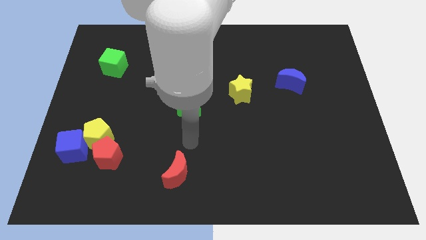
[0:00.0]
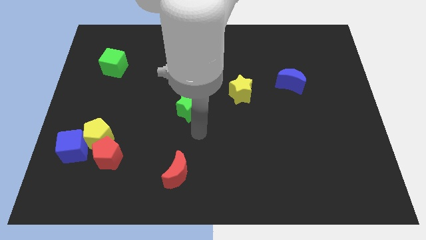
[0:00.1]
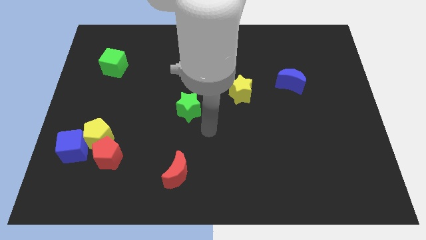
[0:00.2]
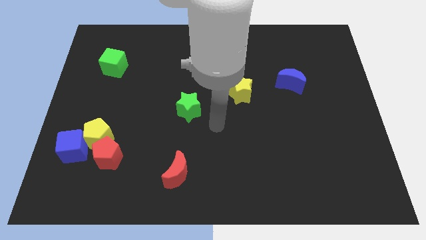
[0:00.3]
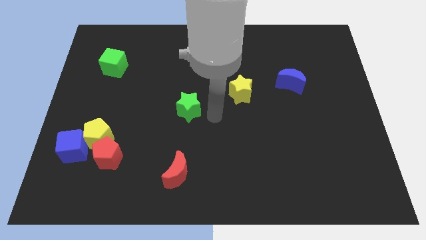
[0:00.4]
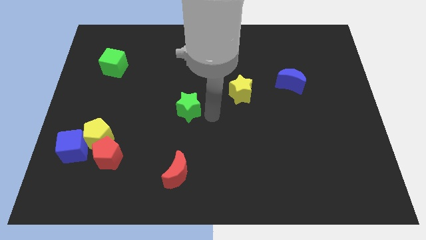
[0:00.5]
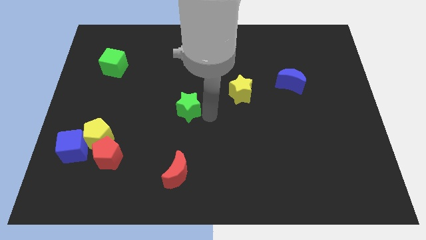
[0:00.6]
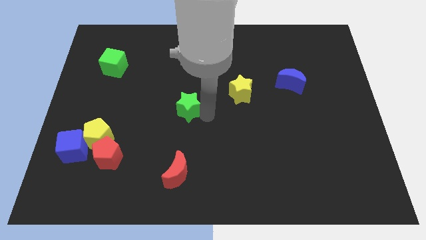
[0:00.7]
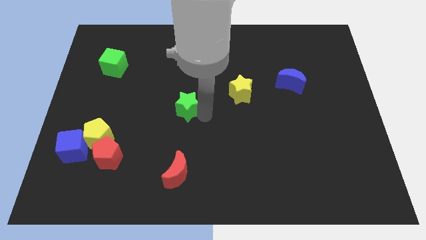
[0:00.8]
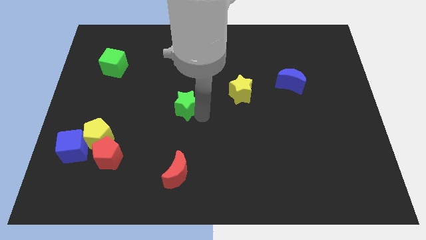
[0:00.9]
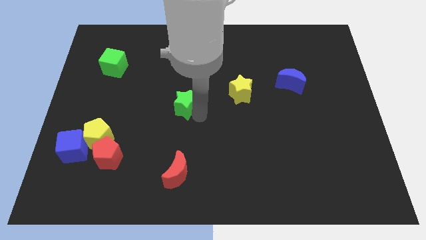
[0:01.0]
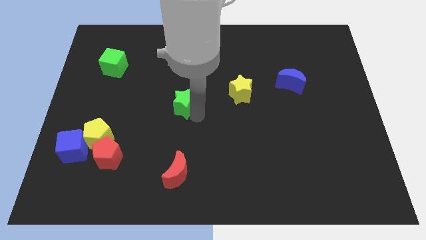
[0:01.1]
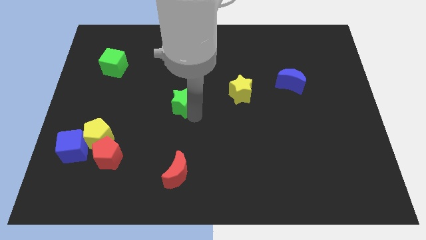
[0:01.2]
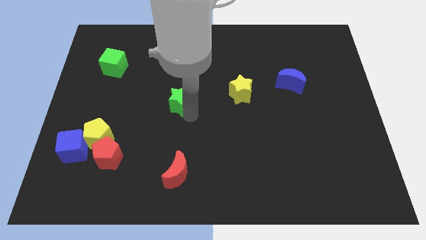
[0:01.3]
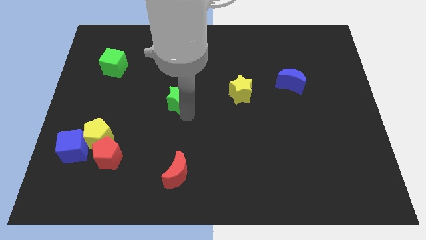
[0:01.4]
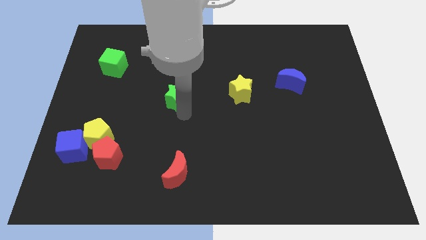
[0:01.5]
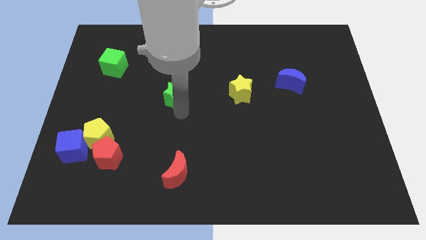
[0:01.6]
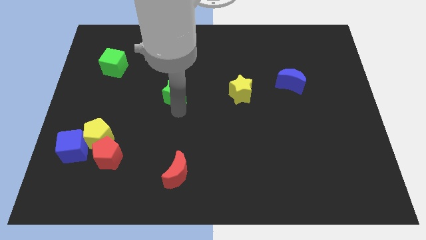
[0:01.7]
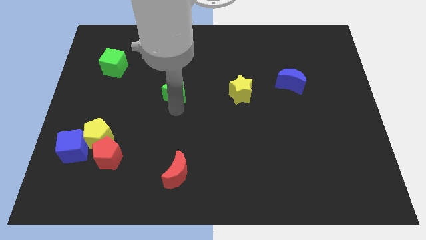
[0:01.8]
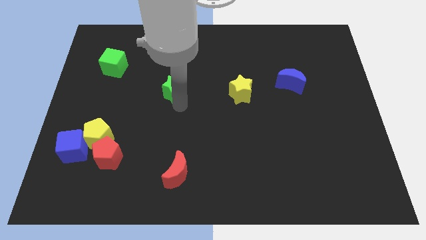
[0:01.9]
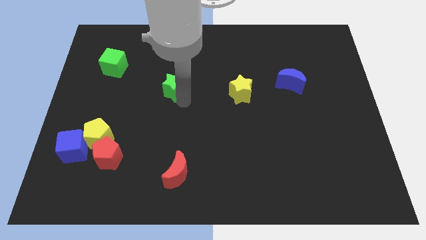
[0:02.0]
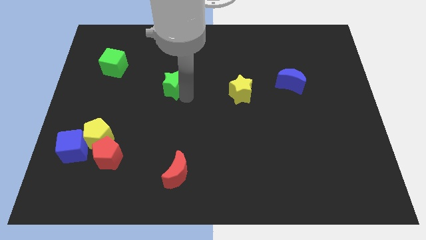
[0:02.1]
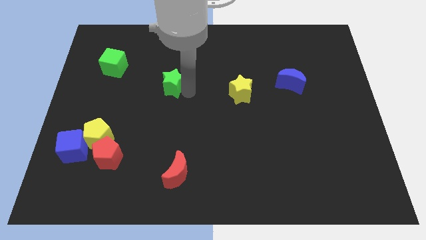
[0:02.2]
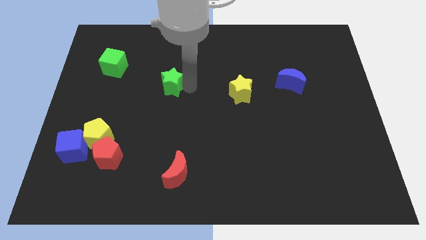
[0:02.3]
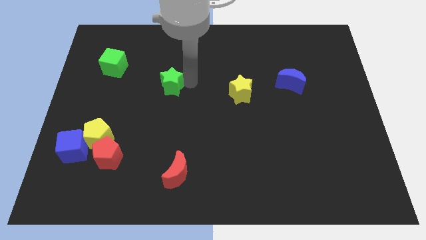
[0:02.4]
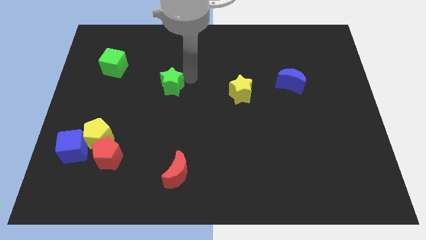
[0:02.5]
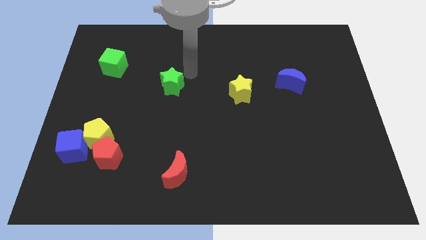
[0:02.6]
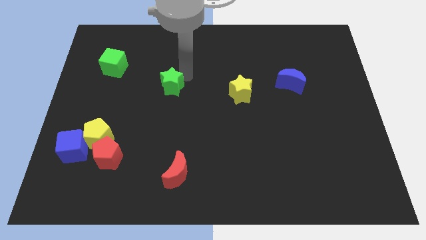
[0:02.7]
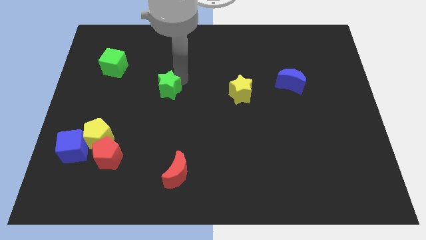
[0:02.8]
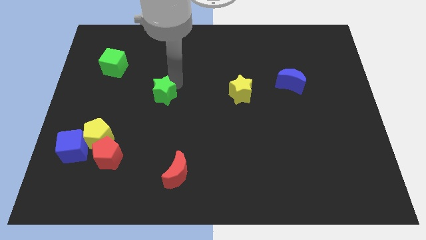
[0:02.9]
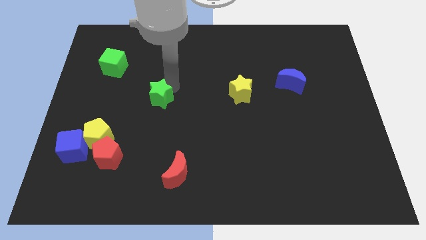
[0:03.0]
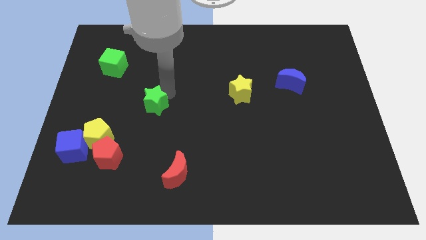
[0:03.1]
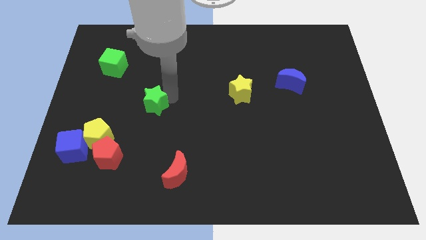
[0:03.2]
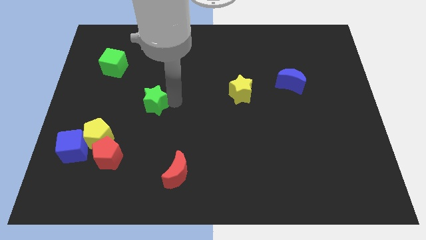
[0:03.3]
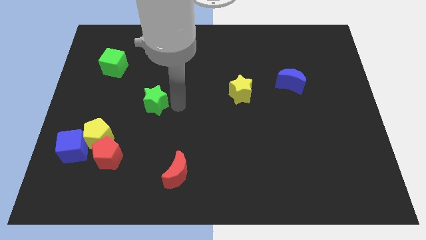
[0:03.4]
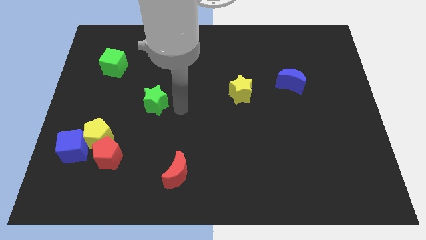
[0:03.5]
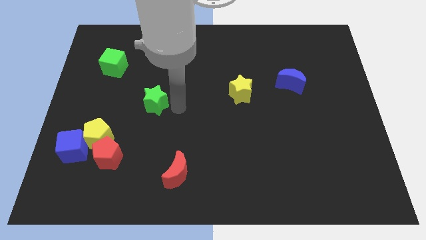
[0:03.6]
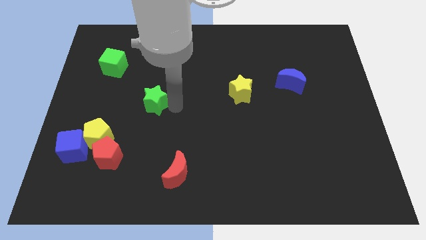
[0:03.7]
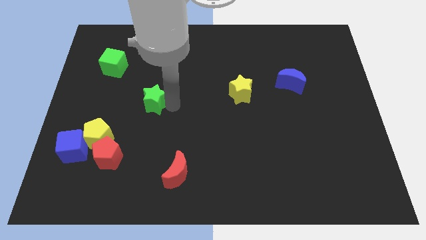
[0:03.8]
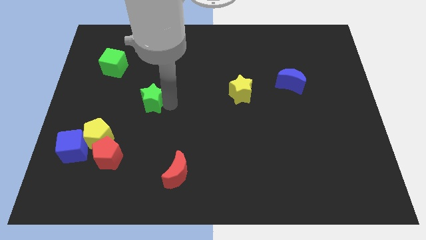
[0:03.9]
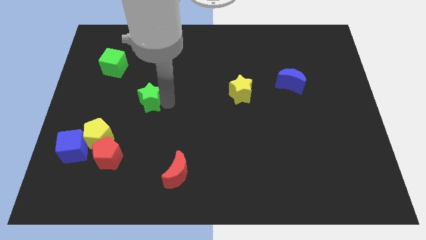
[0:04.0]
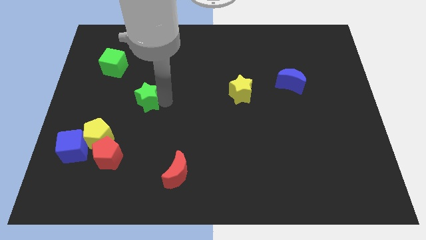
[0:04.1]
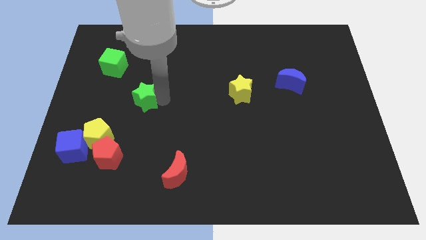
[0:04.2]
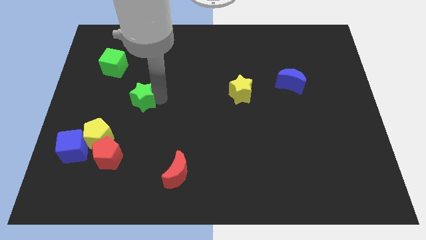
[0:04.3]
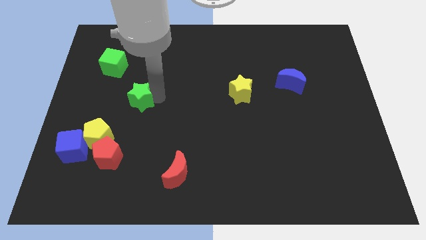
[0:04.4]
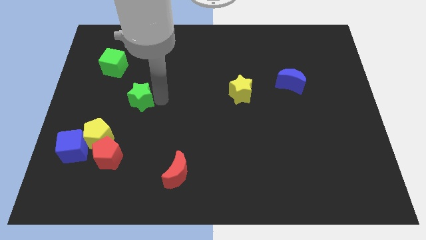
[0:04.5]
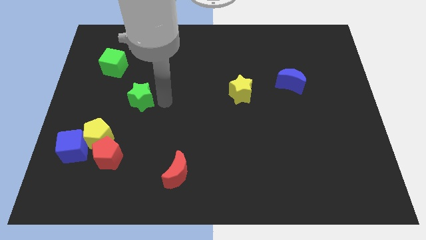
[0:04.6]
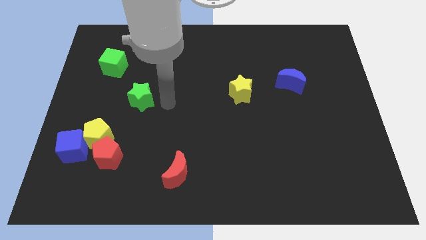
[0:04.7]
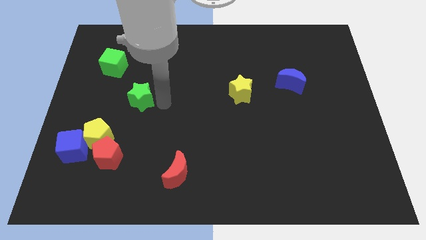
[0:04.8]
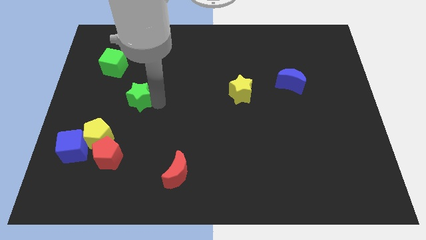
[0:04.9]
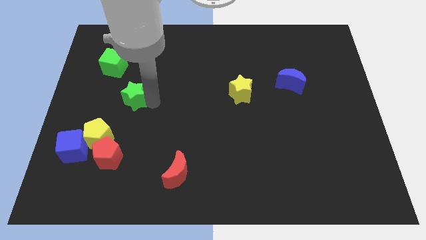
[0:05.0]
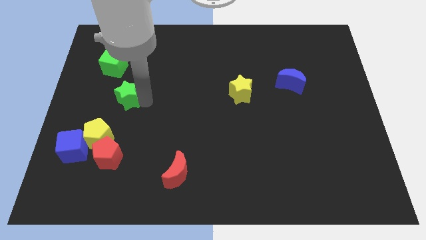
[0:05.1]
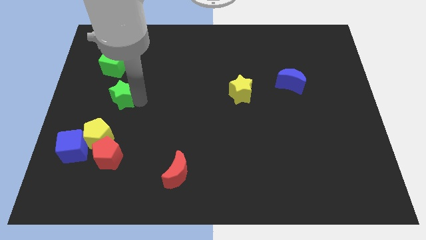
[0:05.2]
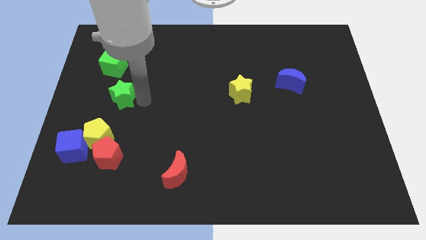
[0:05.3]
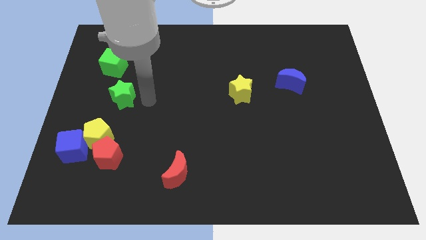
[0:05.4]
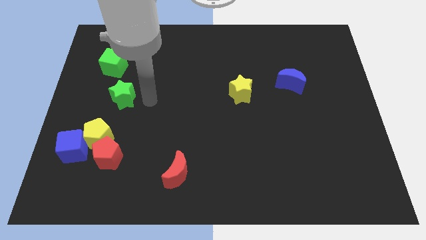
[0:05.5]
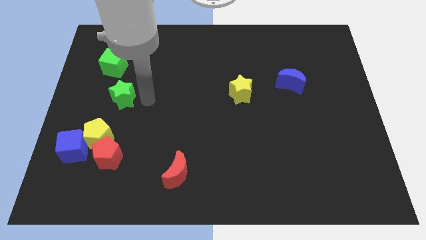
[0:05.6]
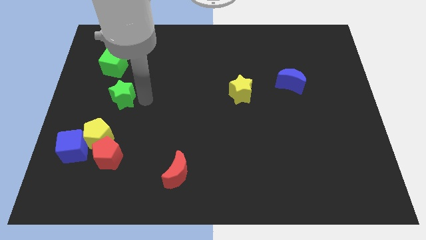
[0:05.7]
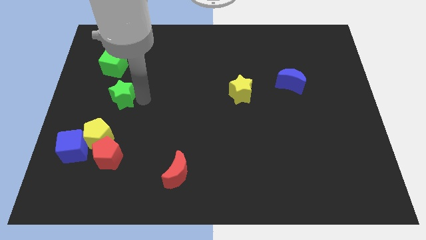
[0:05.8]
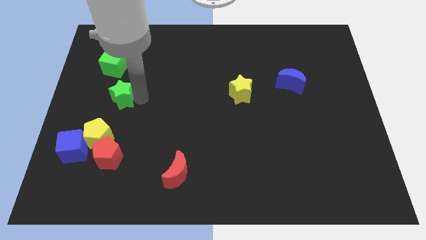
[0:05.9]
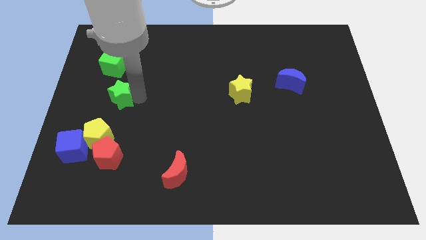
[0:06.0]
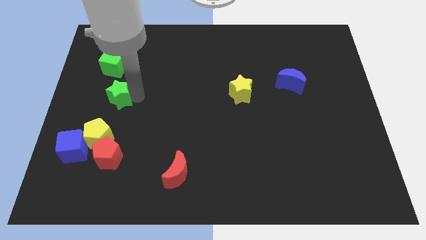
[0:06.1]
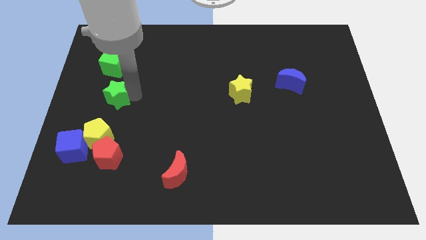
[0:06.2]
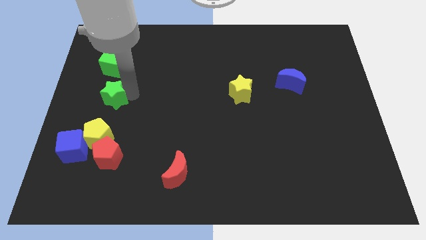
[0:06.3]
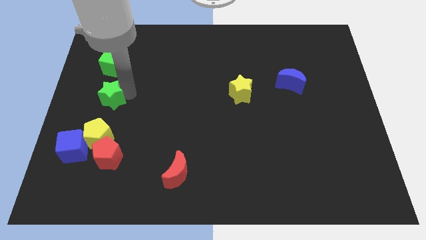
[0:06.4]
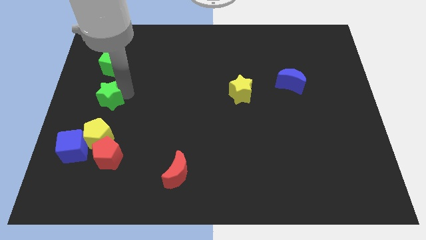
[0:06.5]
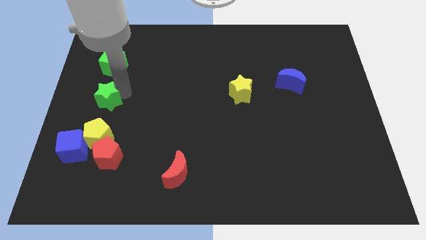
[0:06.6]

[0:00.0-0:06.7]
move the green star to the left side
